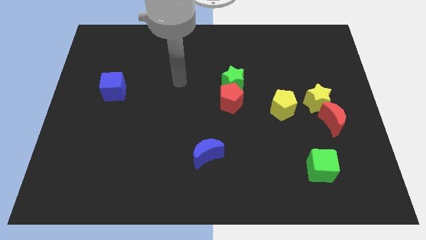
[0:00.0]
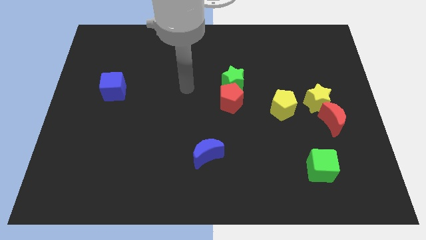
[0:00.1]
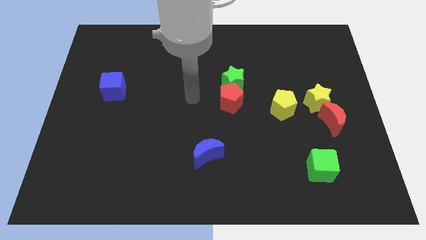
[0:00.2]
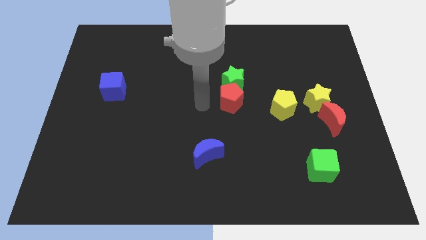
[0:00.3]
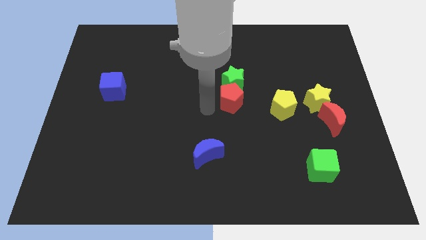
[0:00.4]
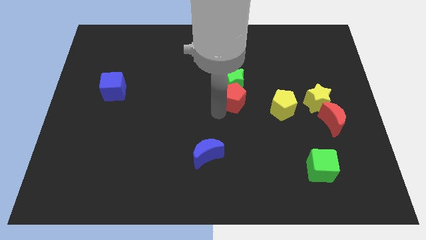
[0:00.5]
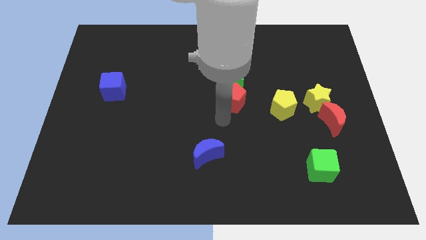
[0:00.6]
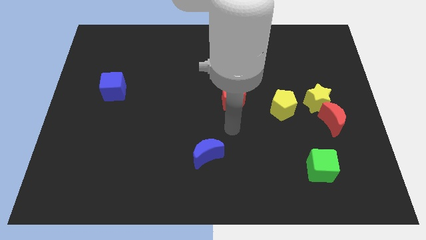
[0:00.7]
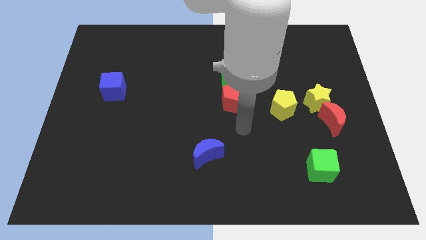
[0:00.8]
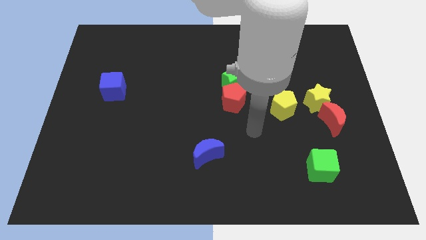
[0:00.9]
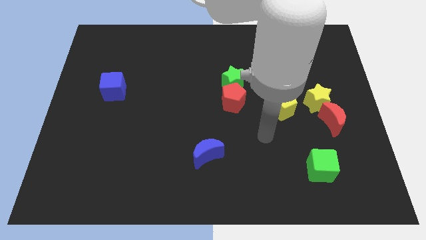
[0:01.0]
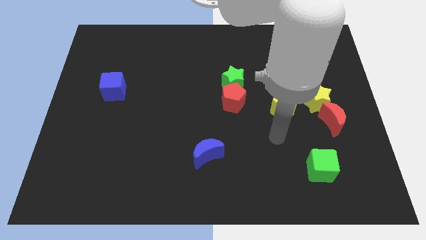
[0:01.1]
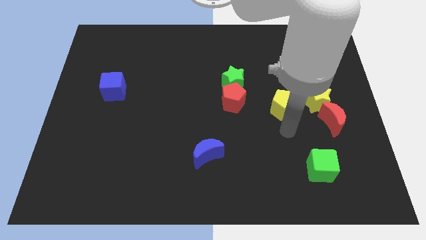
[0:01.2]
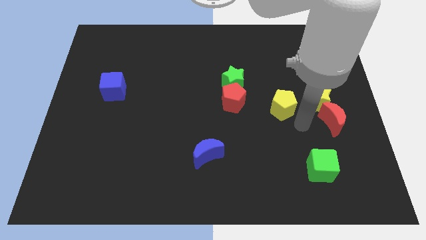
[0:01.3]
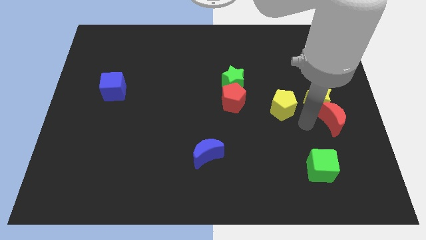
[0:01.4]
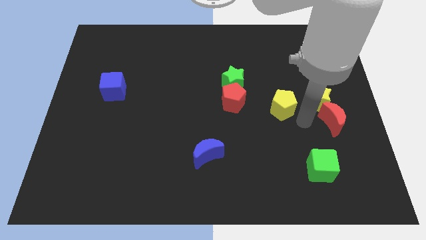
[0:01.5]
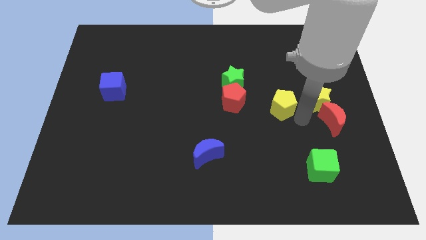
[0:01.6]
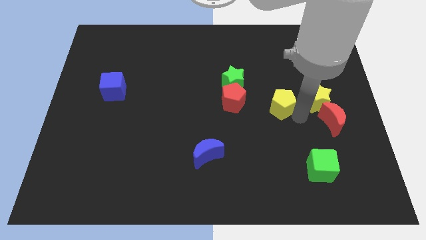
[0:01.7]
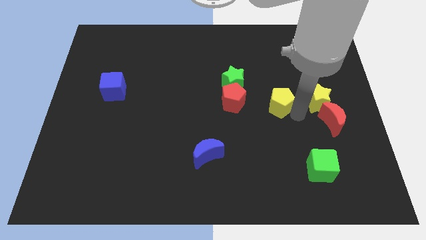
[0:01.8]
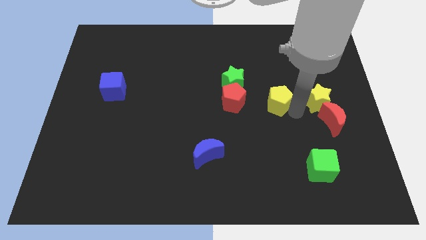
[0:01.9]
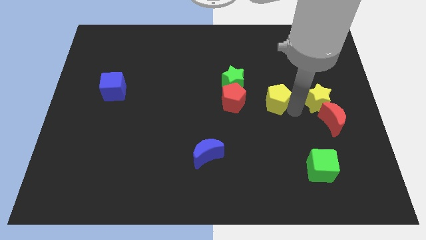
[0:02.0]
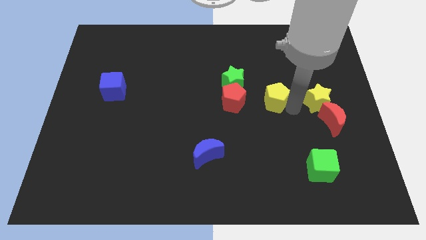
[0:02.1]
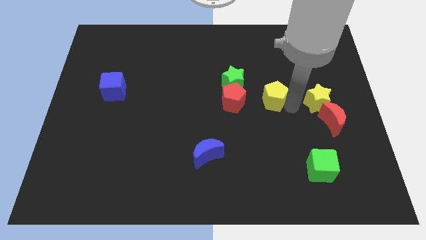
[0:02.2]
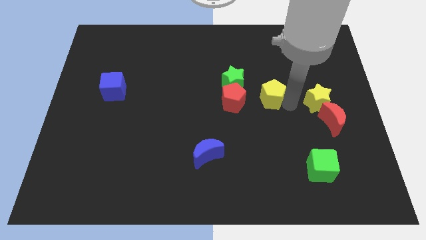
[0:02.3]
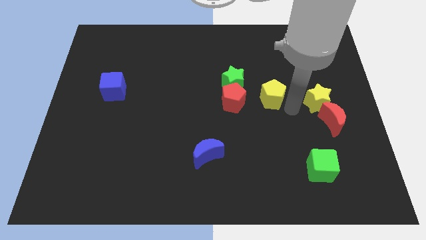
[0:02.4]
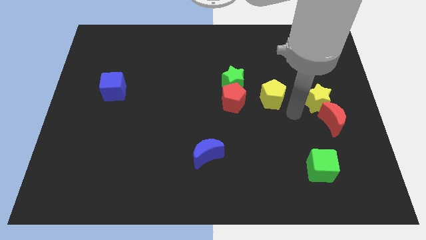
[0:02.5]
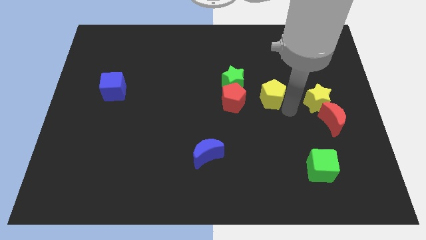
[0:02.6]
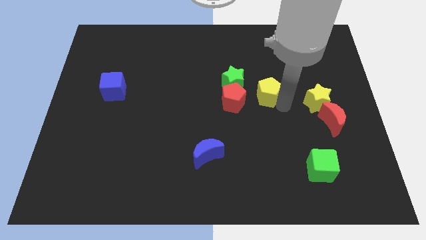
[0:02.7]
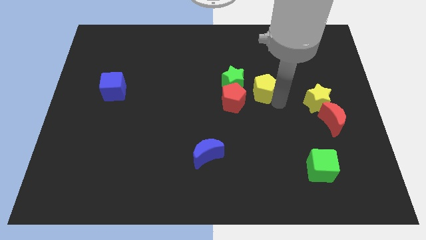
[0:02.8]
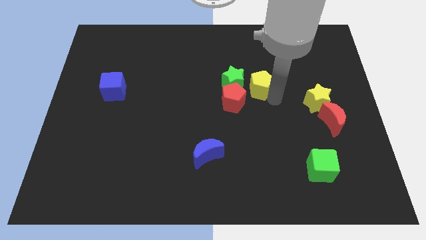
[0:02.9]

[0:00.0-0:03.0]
move the yellow pentagon diagonally up and left a little

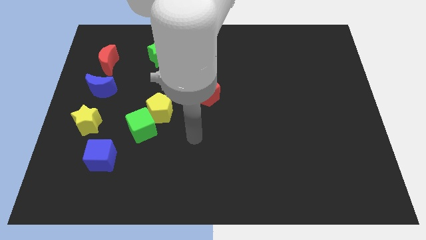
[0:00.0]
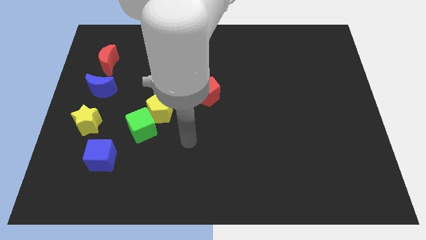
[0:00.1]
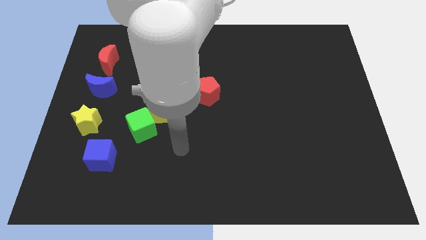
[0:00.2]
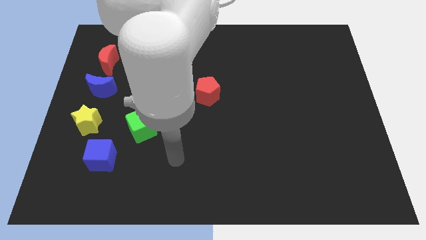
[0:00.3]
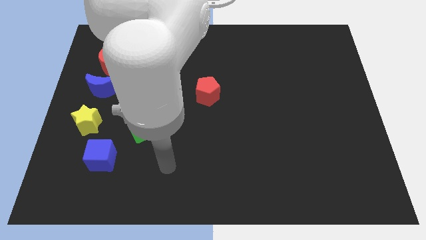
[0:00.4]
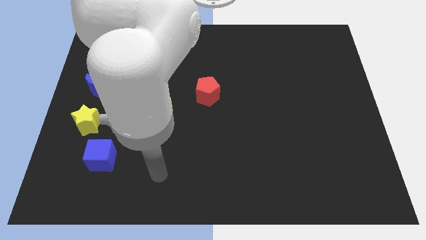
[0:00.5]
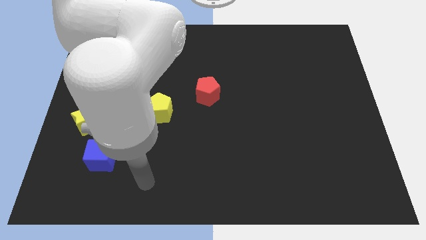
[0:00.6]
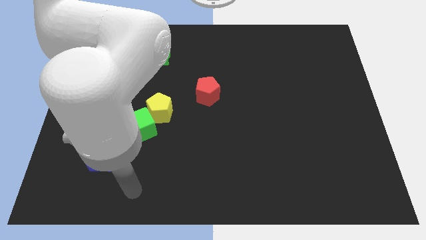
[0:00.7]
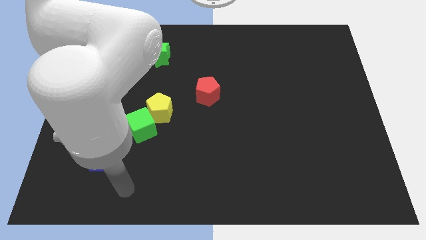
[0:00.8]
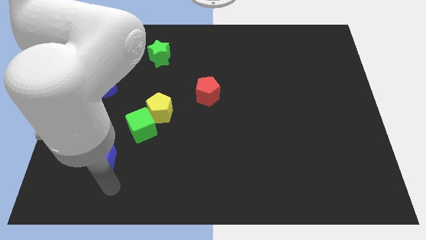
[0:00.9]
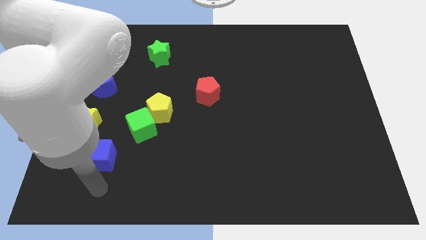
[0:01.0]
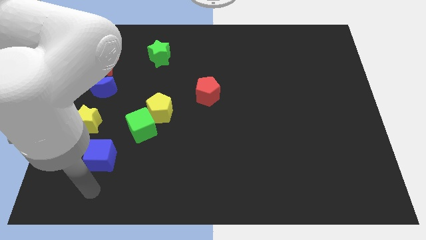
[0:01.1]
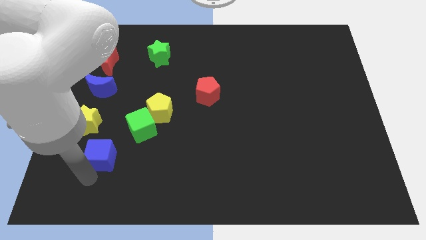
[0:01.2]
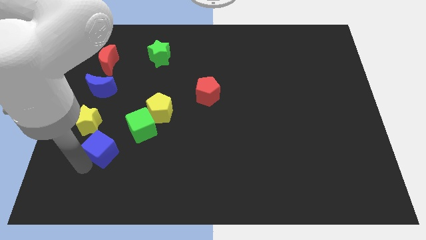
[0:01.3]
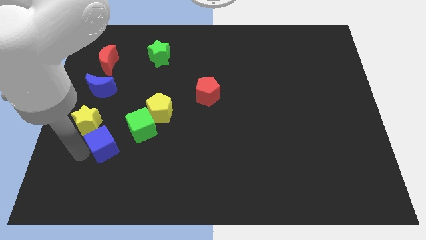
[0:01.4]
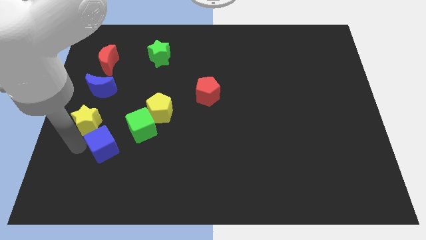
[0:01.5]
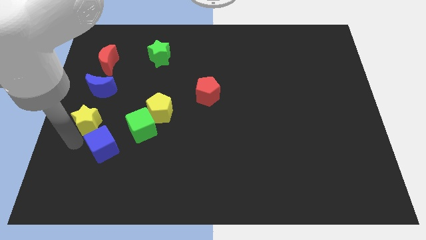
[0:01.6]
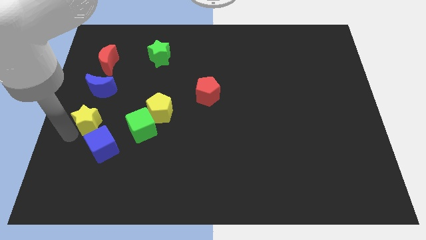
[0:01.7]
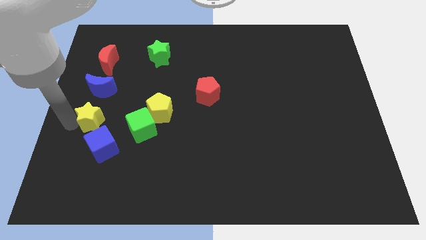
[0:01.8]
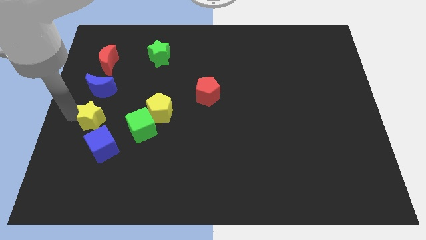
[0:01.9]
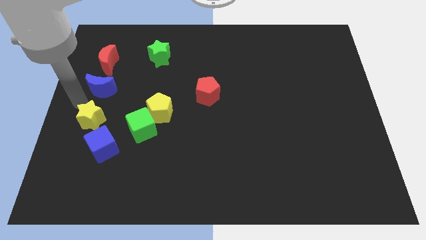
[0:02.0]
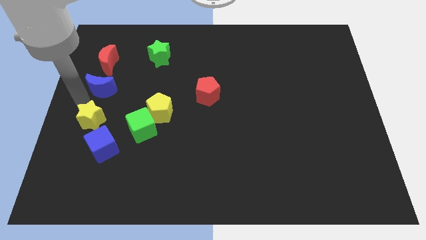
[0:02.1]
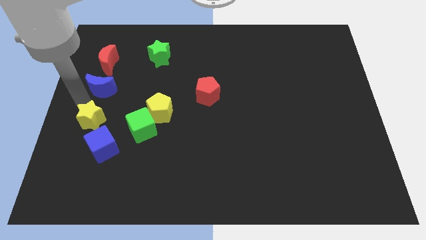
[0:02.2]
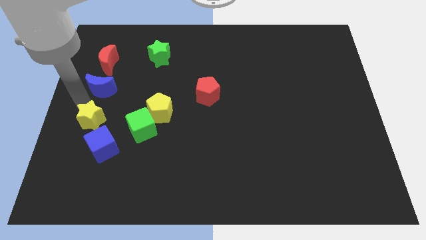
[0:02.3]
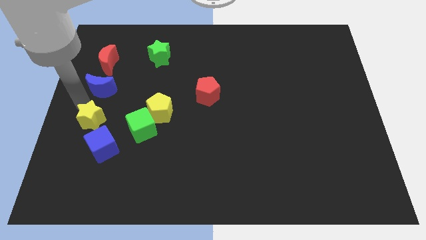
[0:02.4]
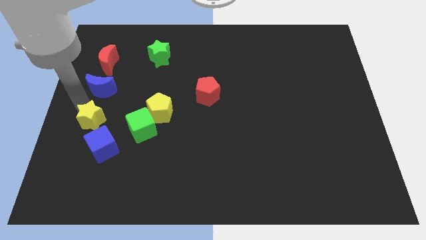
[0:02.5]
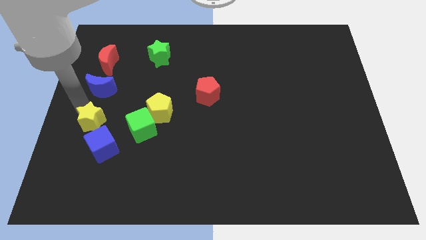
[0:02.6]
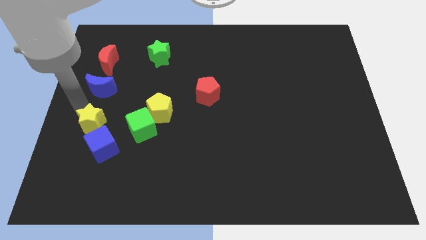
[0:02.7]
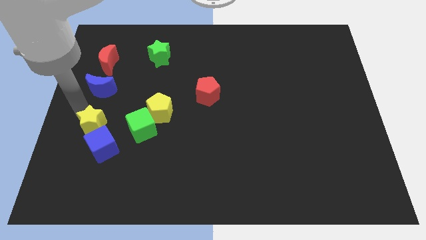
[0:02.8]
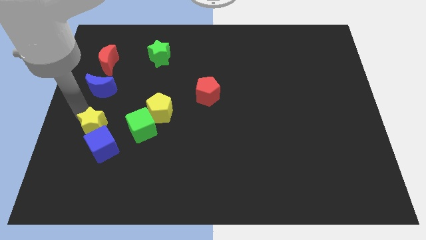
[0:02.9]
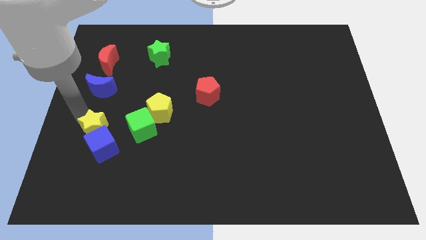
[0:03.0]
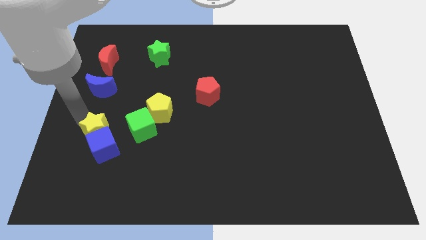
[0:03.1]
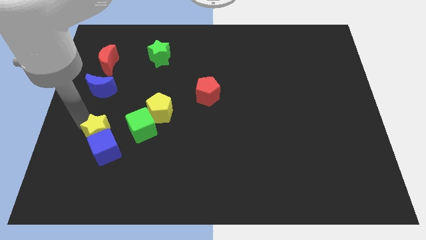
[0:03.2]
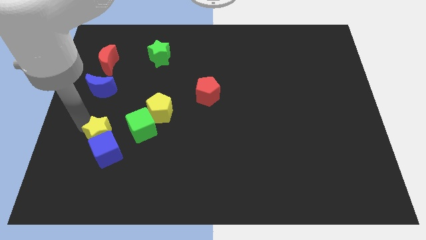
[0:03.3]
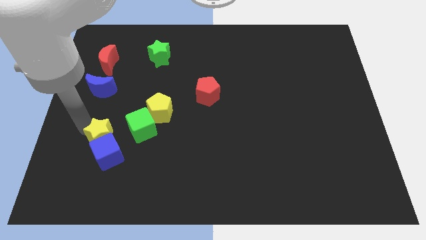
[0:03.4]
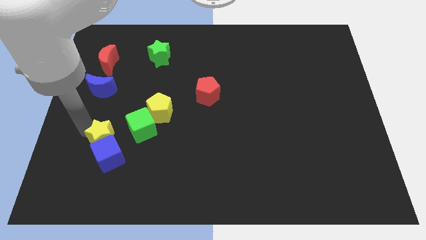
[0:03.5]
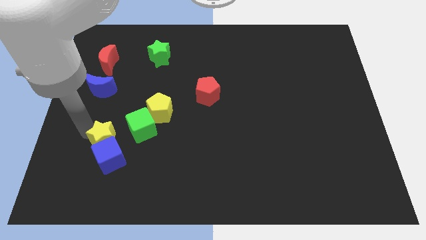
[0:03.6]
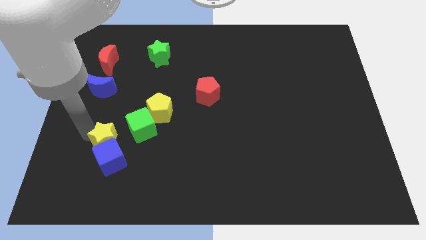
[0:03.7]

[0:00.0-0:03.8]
move the yellow star a bit downwards and to the right diagonally

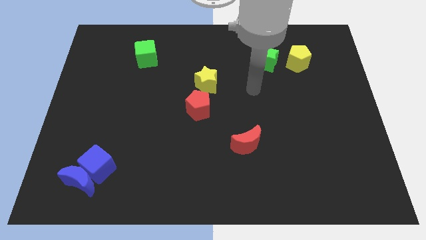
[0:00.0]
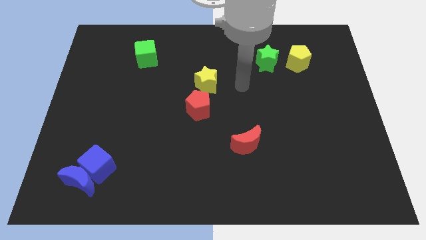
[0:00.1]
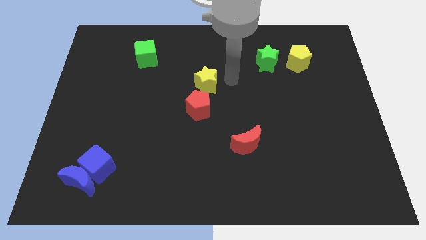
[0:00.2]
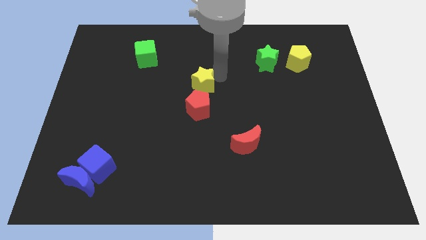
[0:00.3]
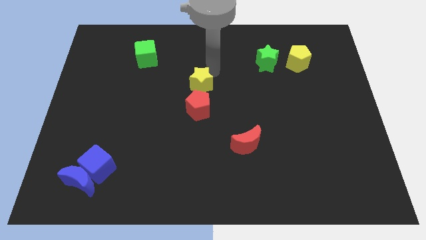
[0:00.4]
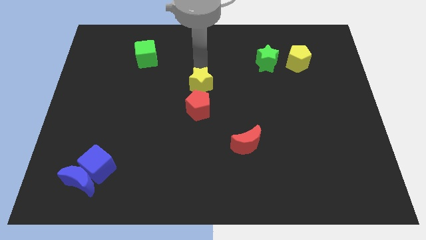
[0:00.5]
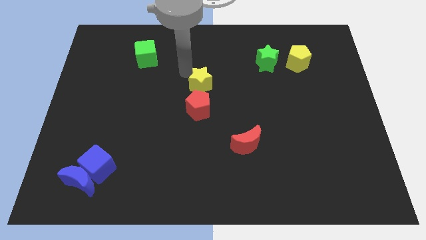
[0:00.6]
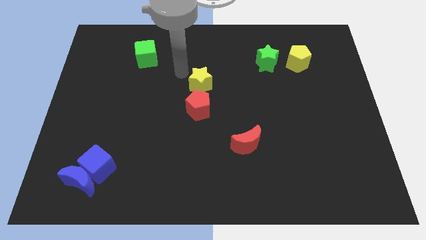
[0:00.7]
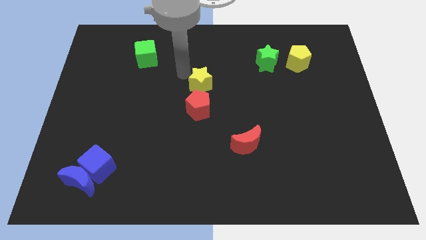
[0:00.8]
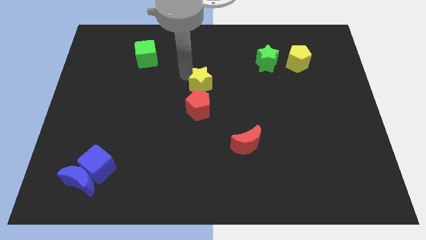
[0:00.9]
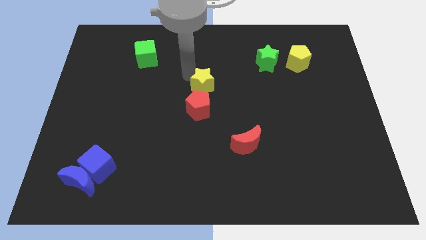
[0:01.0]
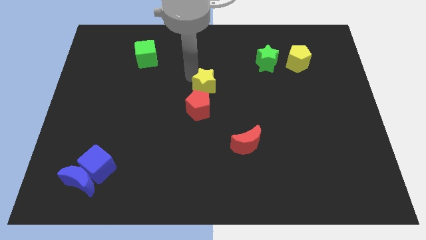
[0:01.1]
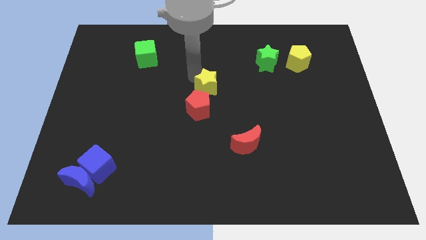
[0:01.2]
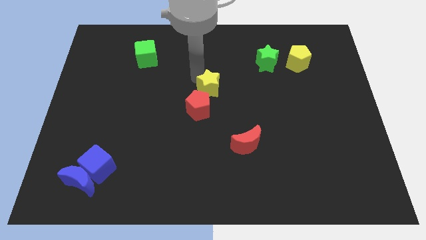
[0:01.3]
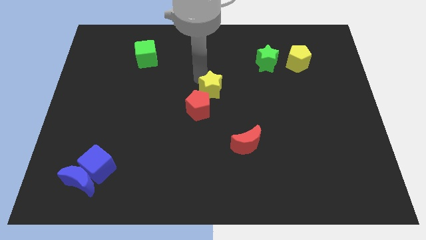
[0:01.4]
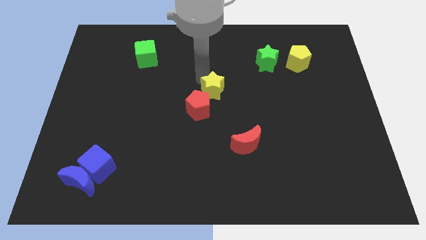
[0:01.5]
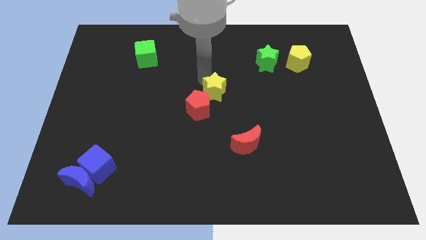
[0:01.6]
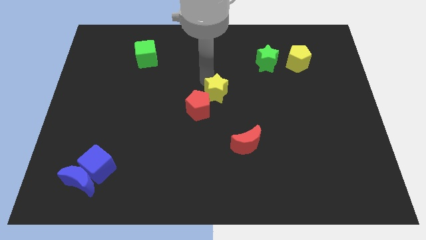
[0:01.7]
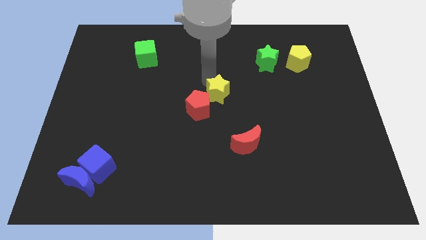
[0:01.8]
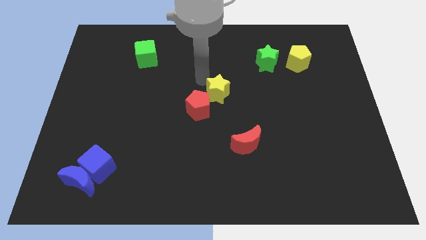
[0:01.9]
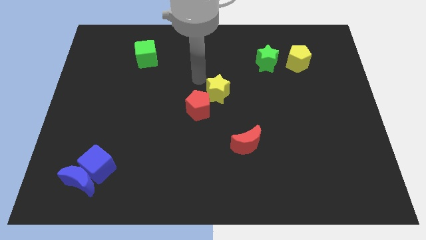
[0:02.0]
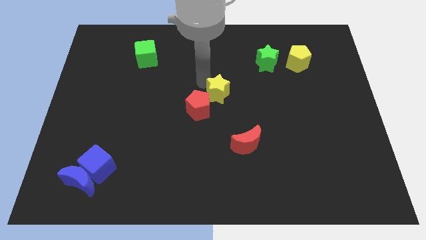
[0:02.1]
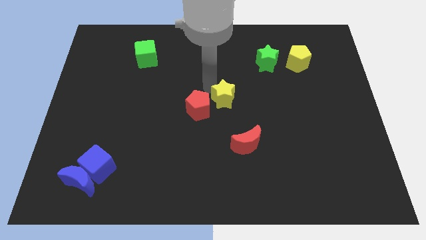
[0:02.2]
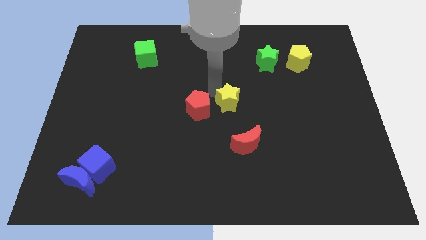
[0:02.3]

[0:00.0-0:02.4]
slide the yellow star down and to the right diagonally slightly
